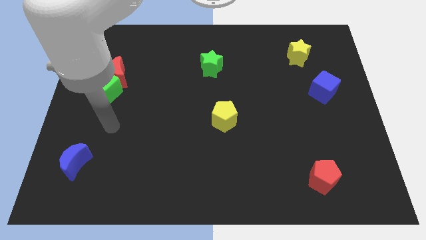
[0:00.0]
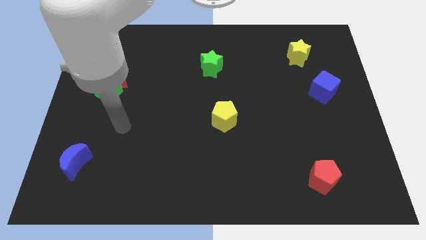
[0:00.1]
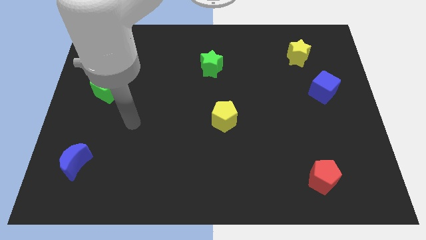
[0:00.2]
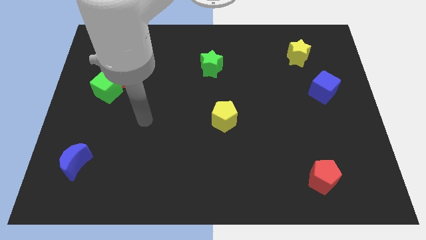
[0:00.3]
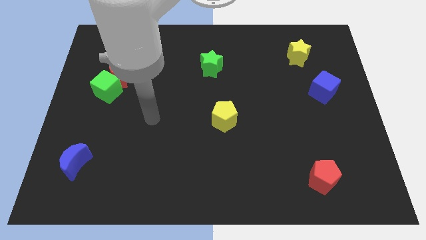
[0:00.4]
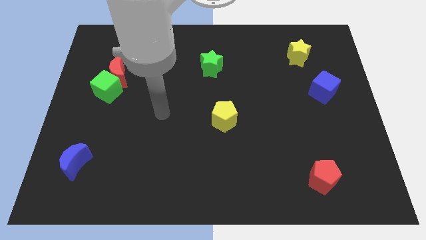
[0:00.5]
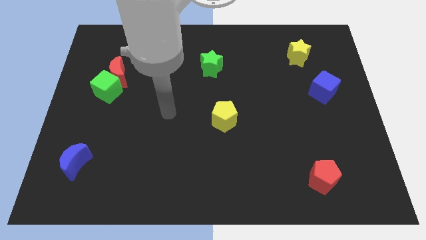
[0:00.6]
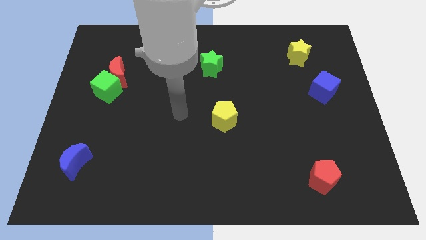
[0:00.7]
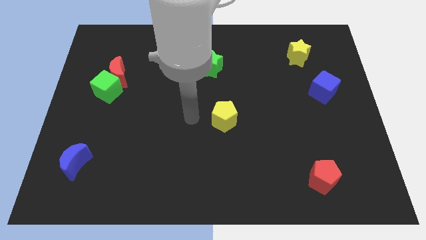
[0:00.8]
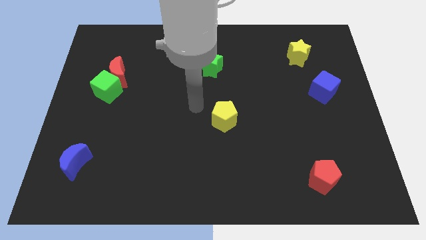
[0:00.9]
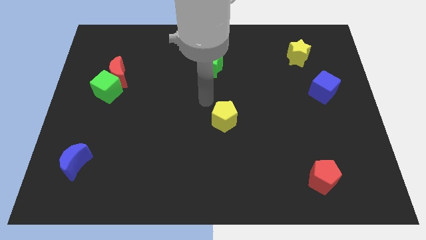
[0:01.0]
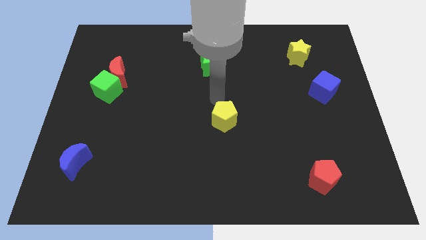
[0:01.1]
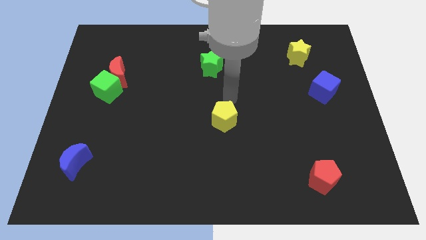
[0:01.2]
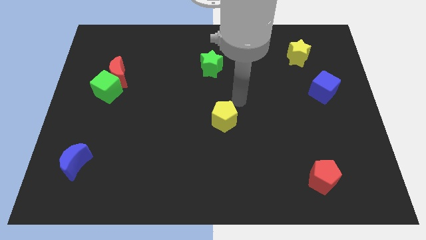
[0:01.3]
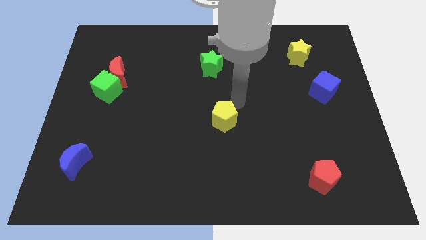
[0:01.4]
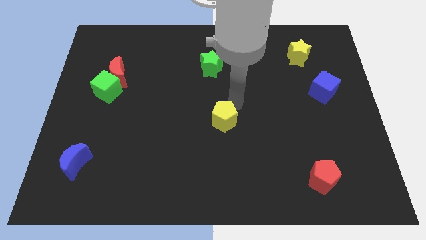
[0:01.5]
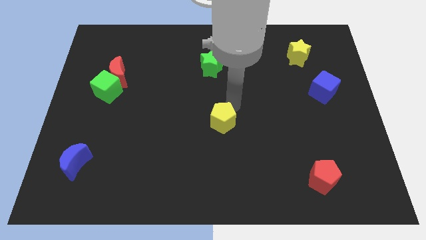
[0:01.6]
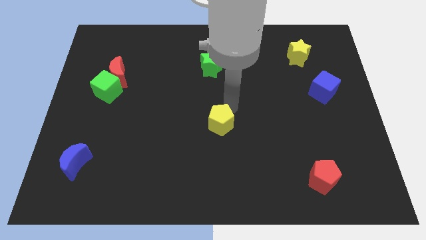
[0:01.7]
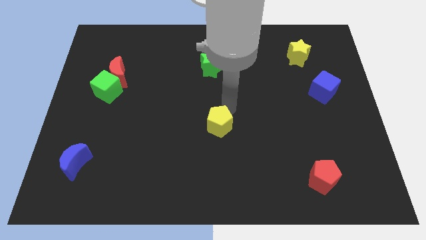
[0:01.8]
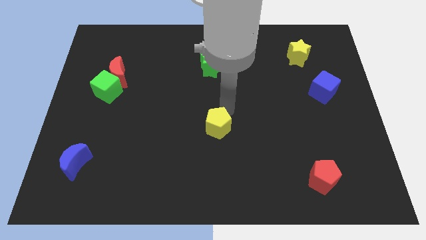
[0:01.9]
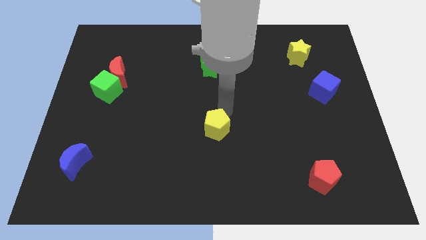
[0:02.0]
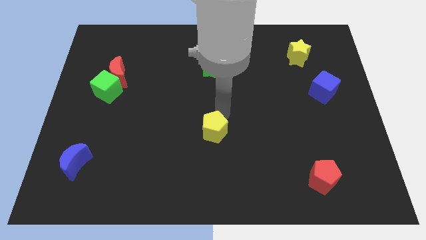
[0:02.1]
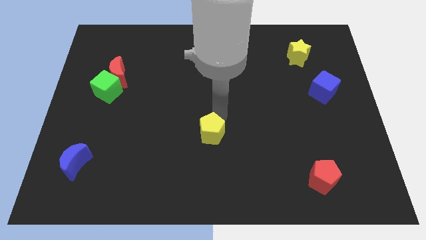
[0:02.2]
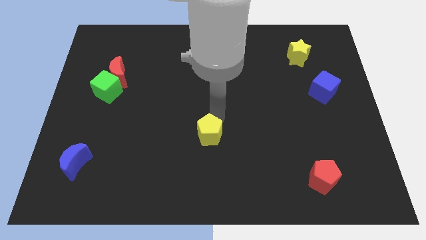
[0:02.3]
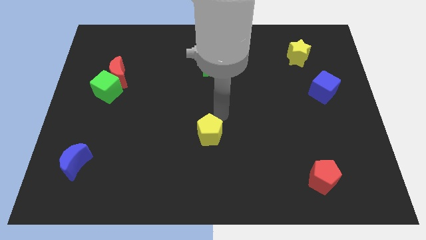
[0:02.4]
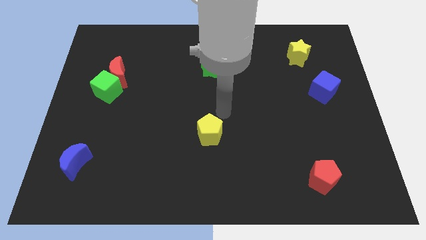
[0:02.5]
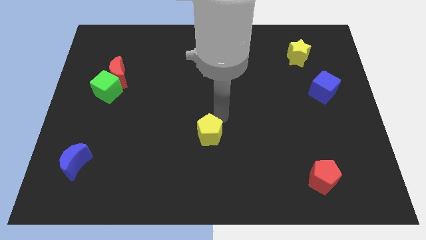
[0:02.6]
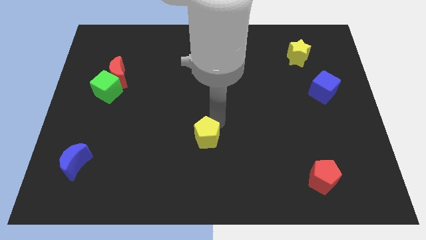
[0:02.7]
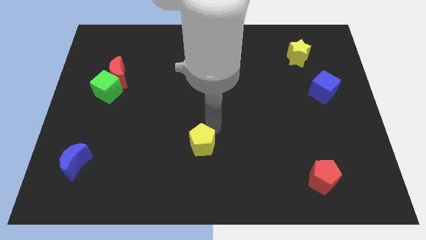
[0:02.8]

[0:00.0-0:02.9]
slightly push the yellow pentagon diagonally downwards and to the left

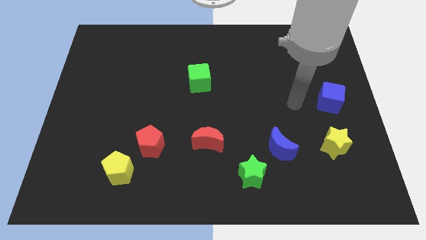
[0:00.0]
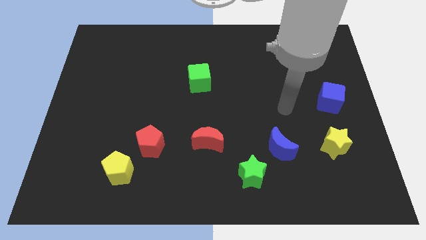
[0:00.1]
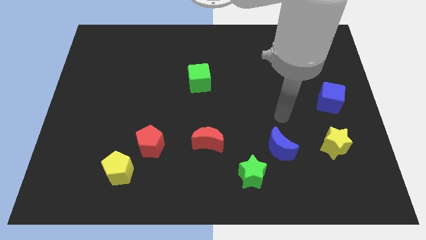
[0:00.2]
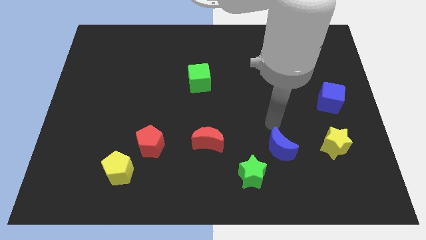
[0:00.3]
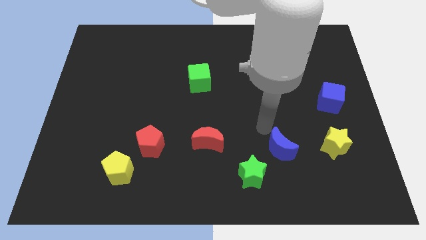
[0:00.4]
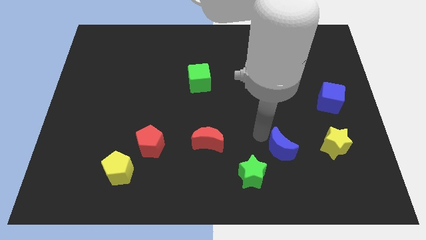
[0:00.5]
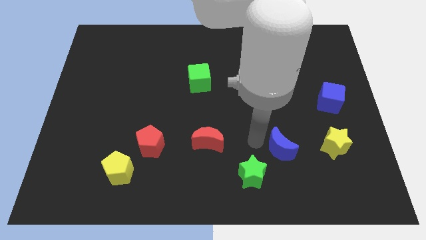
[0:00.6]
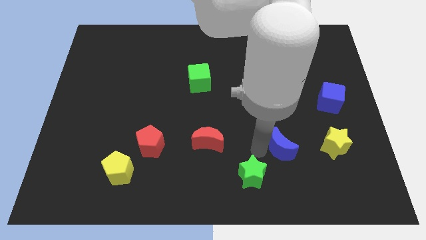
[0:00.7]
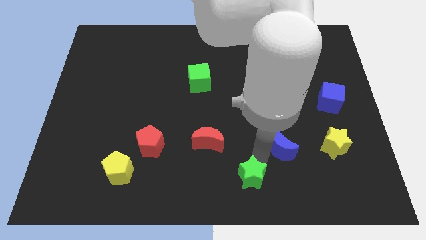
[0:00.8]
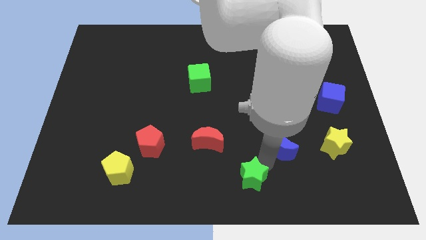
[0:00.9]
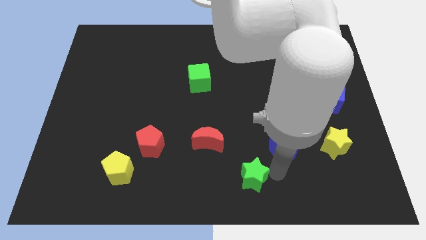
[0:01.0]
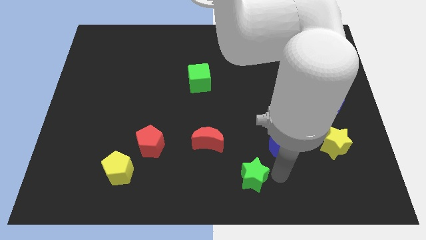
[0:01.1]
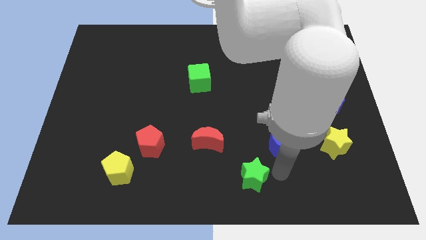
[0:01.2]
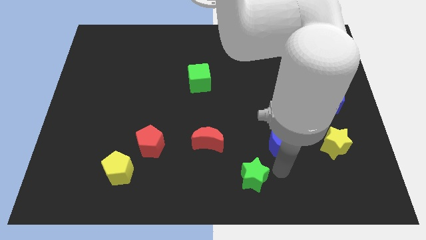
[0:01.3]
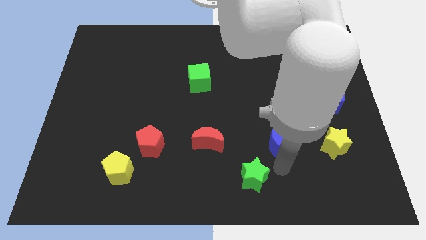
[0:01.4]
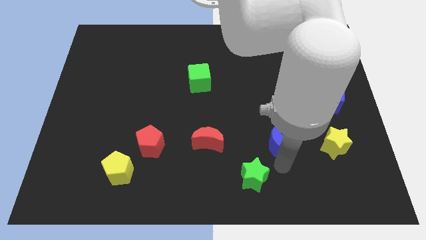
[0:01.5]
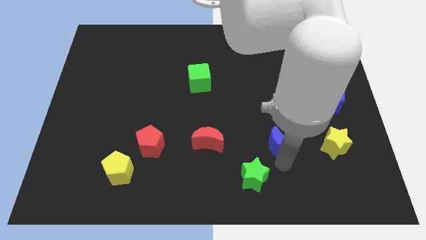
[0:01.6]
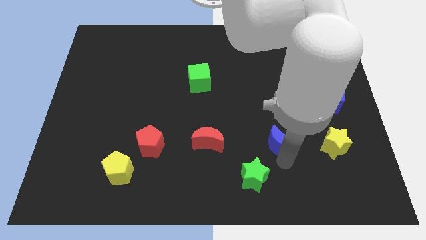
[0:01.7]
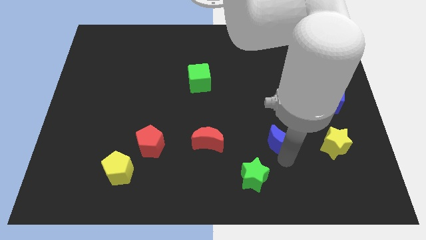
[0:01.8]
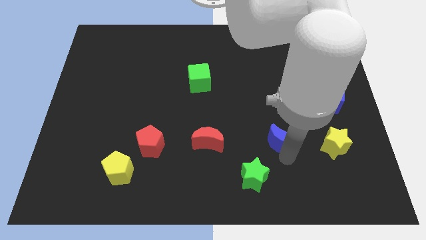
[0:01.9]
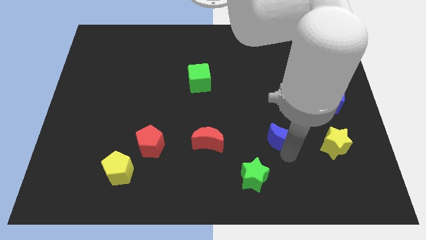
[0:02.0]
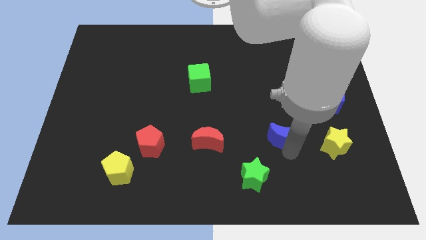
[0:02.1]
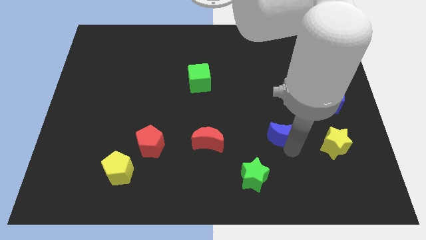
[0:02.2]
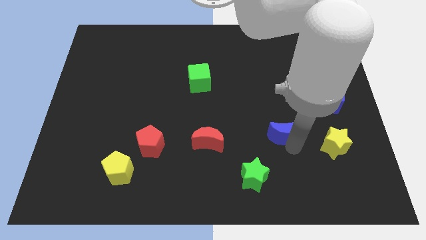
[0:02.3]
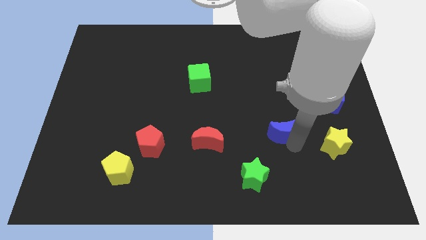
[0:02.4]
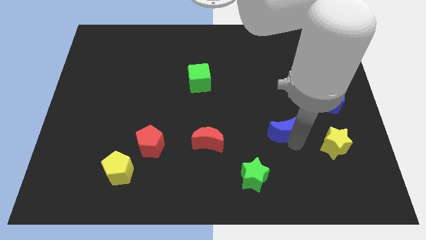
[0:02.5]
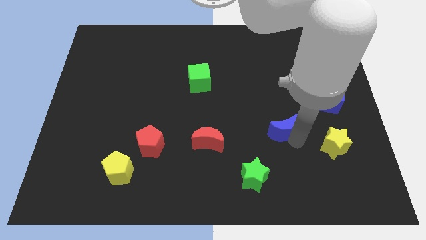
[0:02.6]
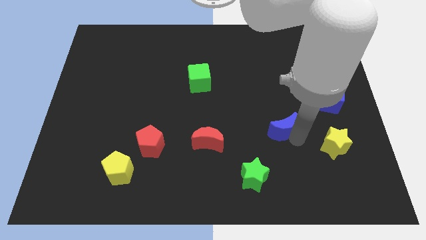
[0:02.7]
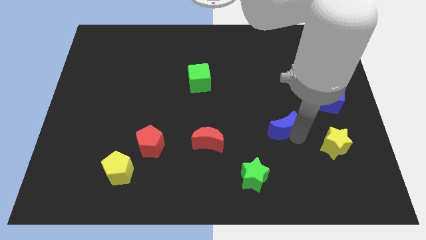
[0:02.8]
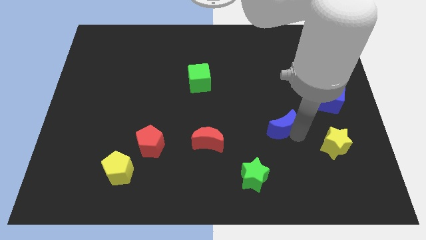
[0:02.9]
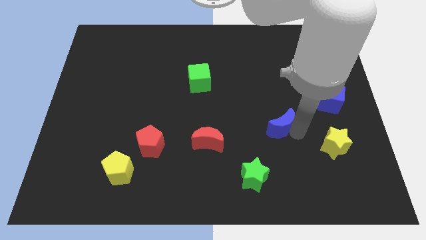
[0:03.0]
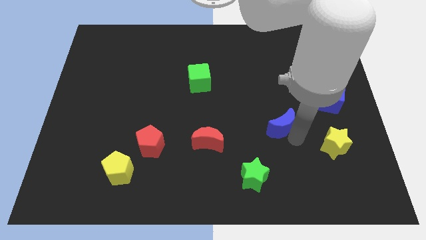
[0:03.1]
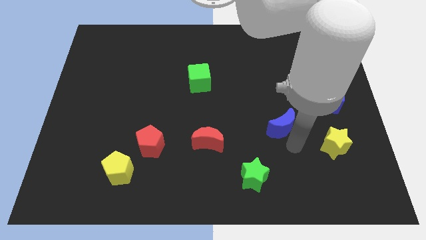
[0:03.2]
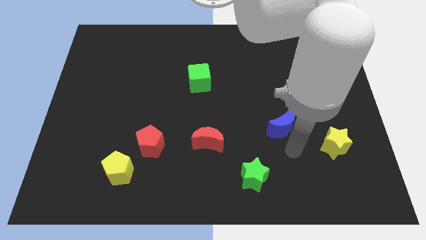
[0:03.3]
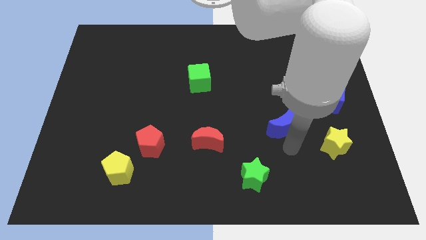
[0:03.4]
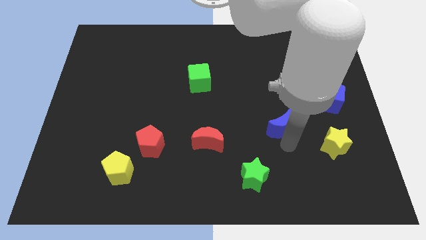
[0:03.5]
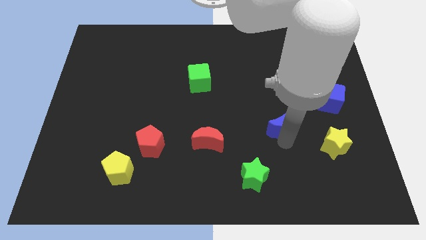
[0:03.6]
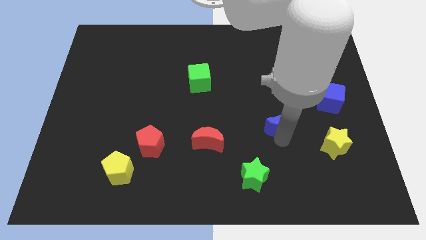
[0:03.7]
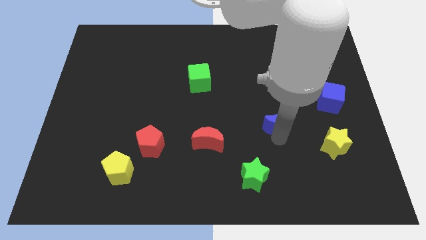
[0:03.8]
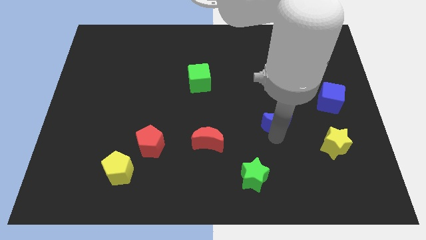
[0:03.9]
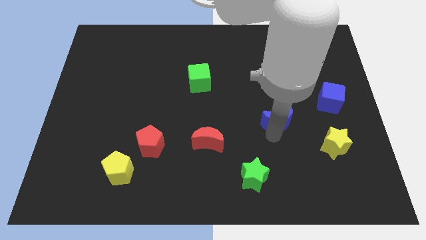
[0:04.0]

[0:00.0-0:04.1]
move the blue moon upwards a bit

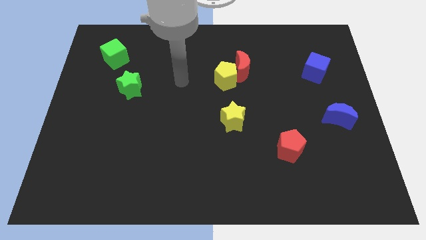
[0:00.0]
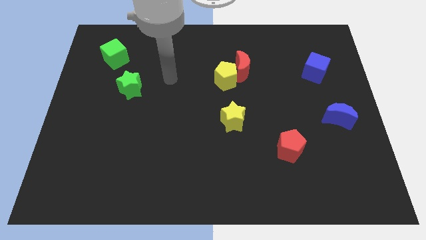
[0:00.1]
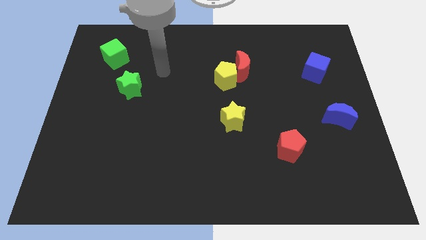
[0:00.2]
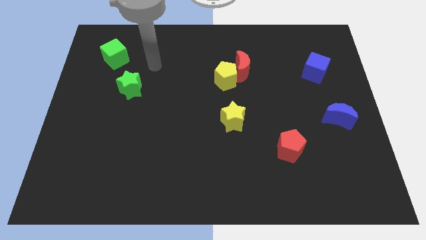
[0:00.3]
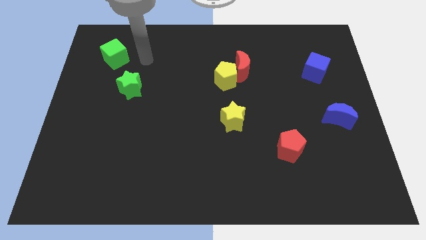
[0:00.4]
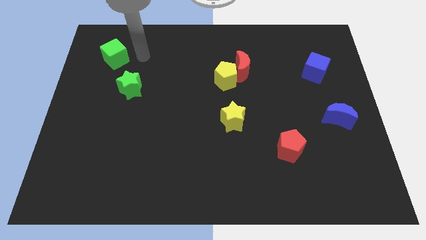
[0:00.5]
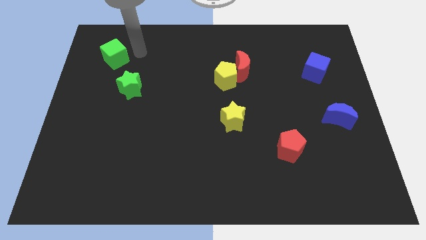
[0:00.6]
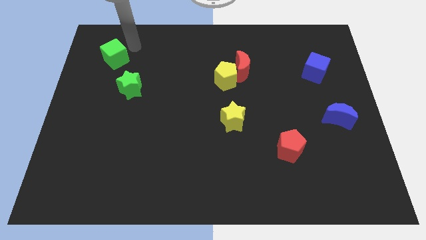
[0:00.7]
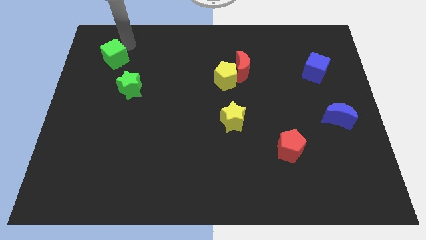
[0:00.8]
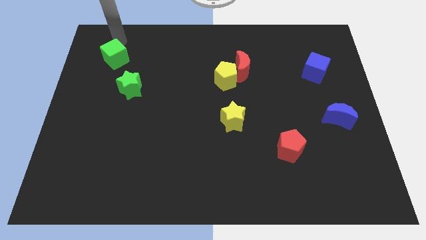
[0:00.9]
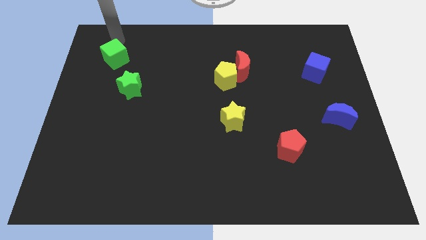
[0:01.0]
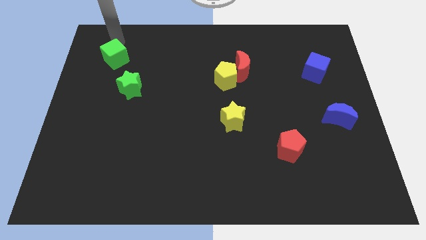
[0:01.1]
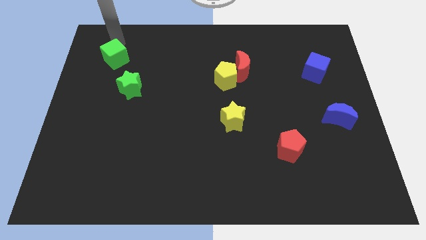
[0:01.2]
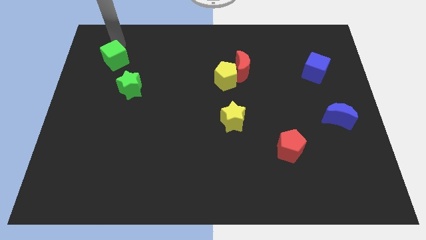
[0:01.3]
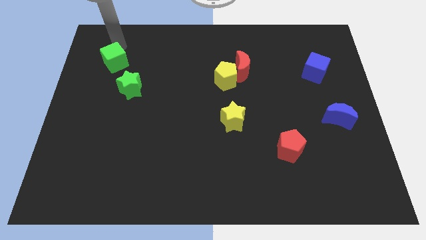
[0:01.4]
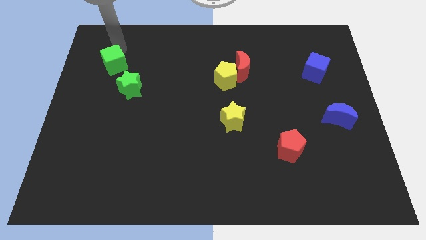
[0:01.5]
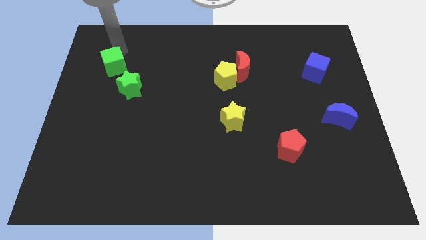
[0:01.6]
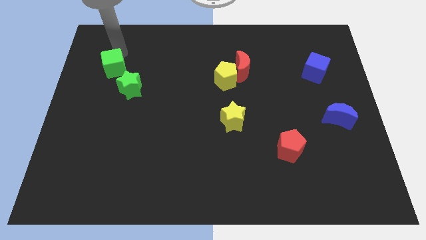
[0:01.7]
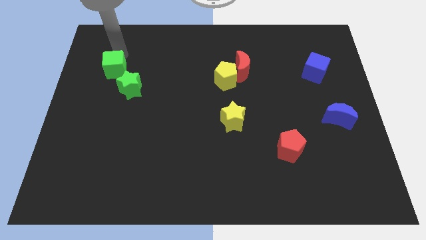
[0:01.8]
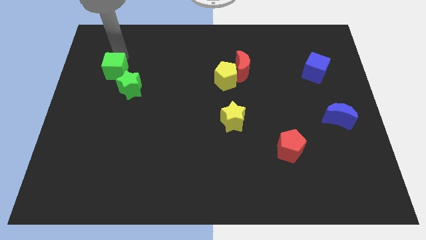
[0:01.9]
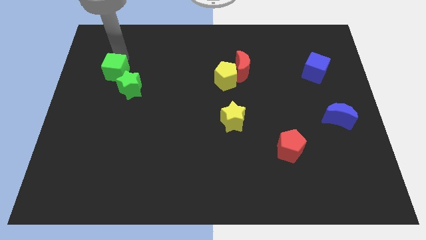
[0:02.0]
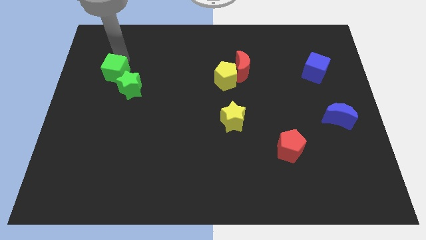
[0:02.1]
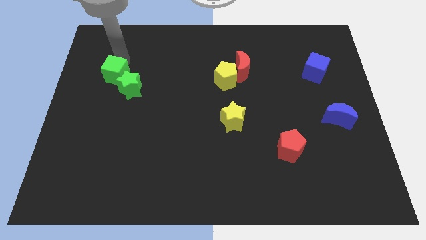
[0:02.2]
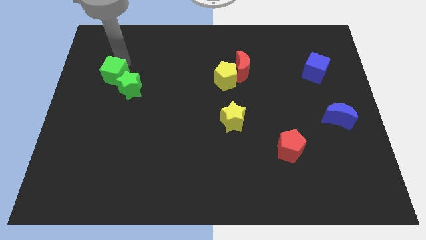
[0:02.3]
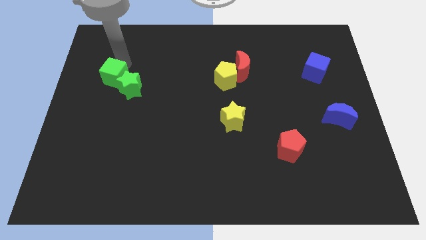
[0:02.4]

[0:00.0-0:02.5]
move the green cube a little bit downwards
